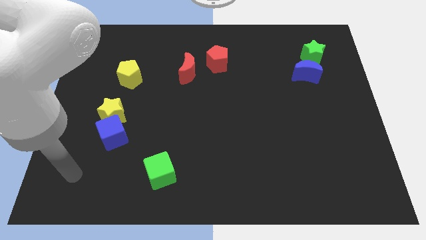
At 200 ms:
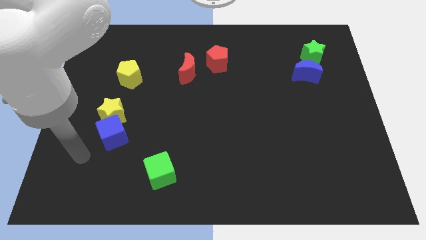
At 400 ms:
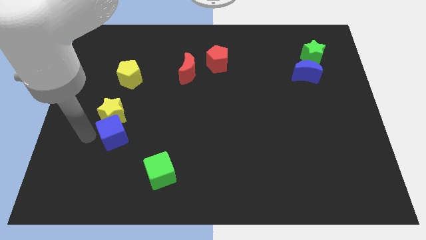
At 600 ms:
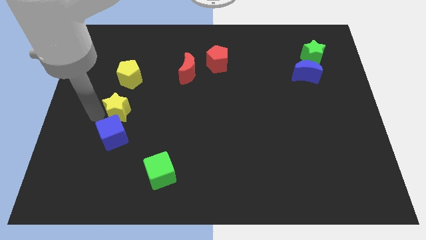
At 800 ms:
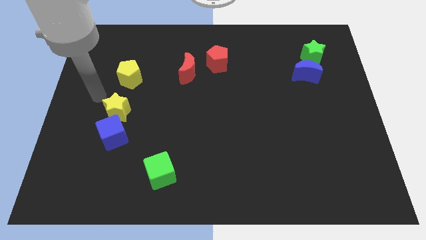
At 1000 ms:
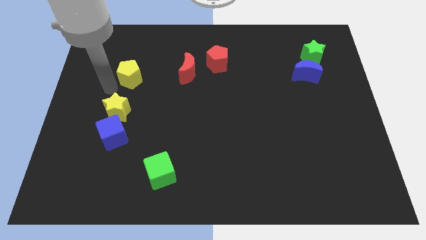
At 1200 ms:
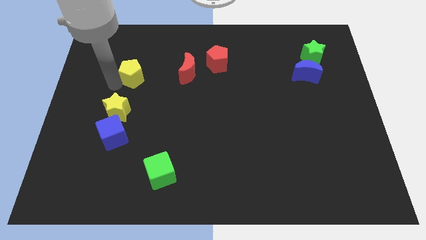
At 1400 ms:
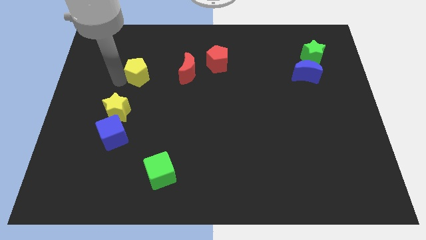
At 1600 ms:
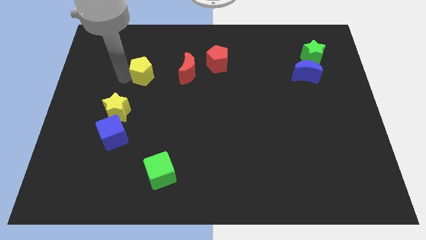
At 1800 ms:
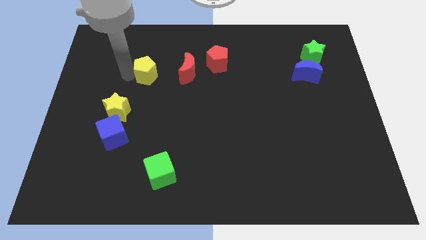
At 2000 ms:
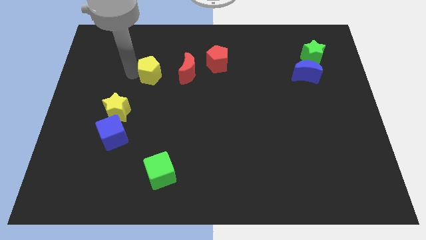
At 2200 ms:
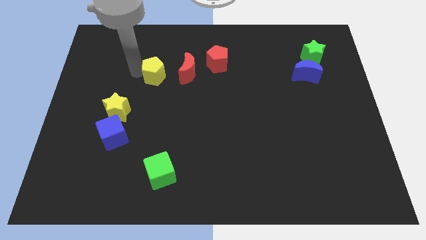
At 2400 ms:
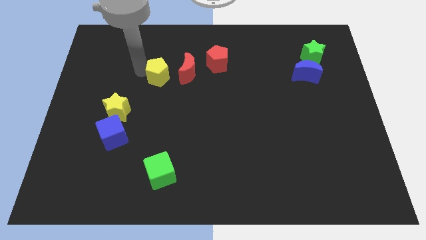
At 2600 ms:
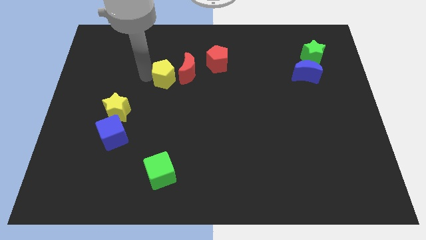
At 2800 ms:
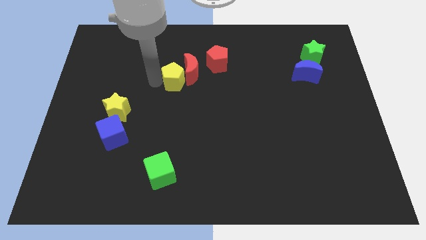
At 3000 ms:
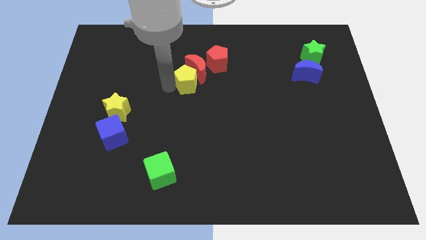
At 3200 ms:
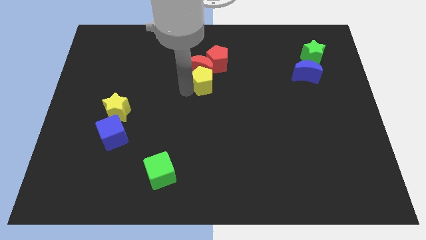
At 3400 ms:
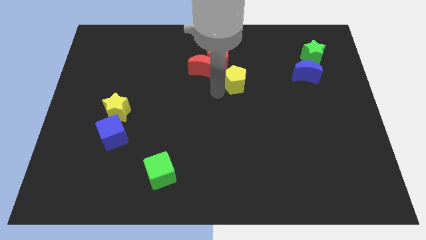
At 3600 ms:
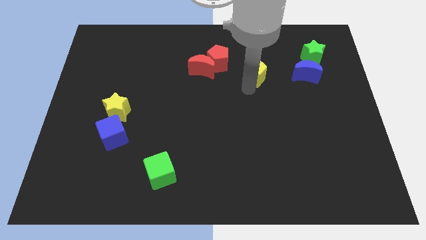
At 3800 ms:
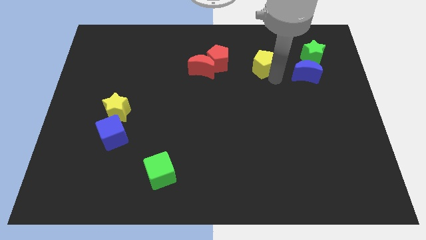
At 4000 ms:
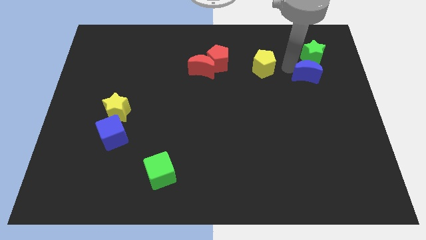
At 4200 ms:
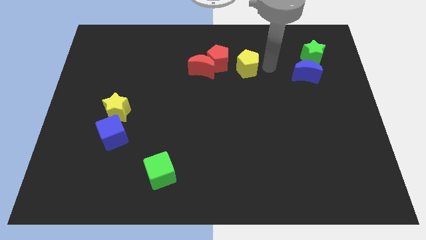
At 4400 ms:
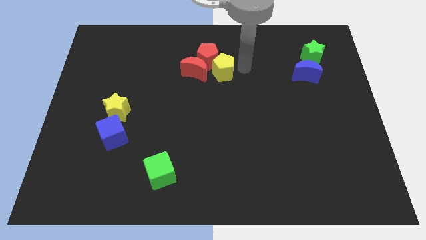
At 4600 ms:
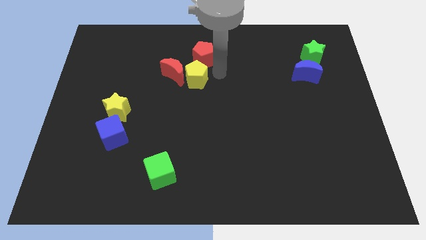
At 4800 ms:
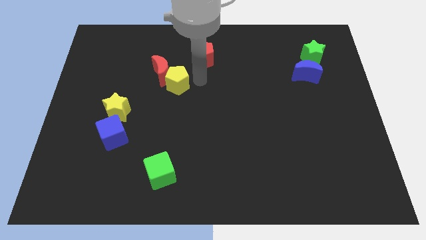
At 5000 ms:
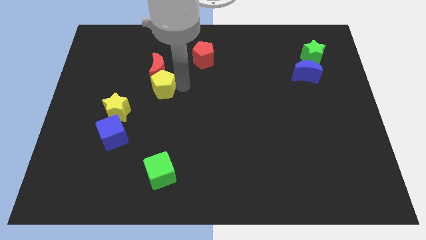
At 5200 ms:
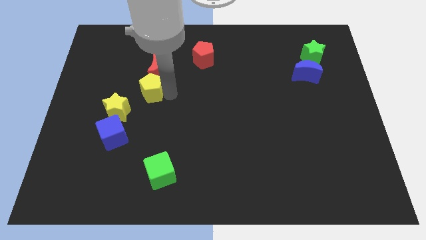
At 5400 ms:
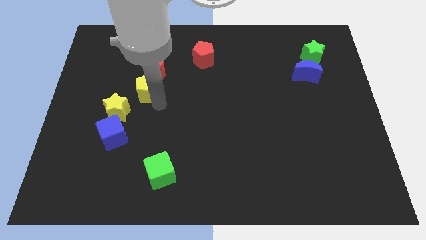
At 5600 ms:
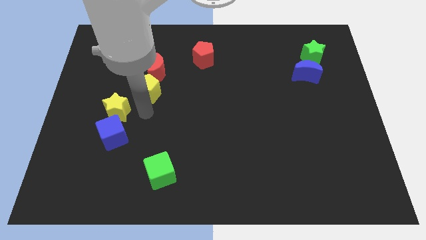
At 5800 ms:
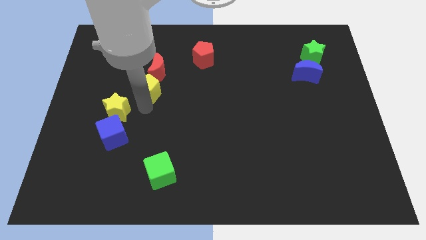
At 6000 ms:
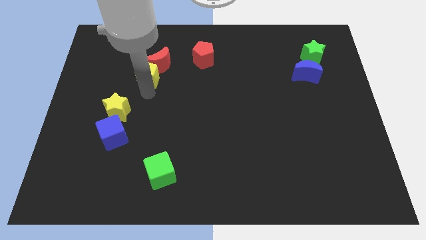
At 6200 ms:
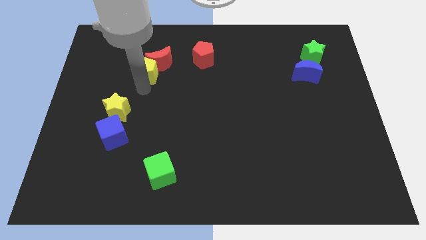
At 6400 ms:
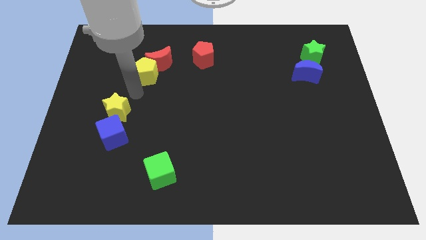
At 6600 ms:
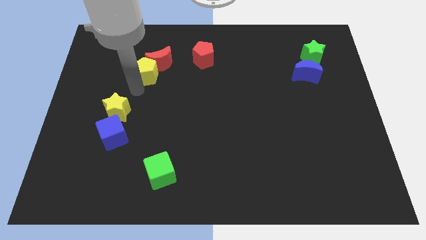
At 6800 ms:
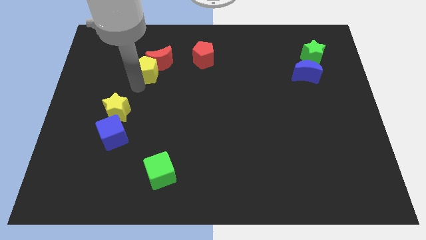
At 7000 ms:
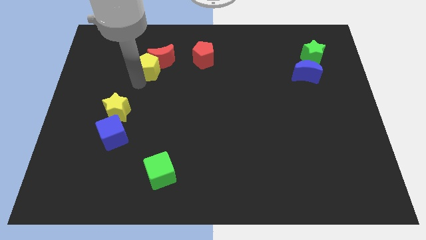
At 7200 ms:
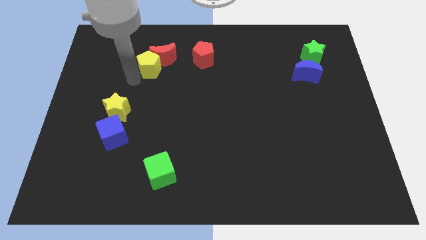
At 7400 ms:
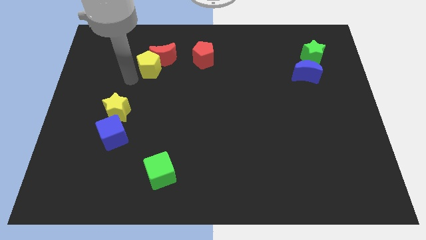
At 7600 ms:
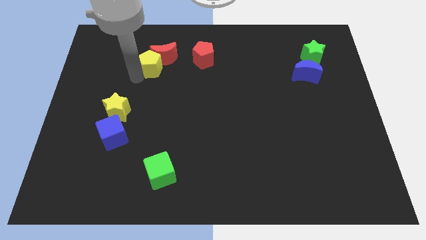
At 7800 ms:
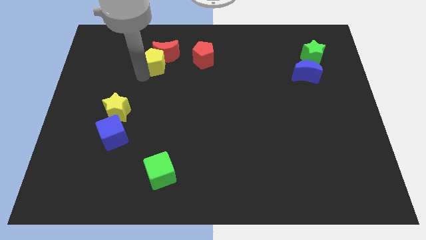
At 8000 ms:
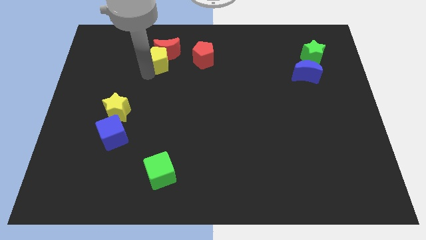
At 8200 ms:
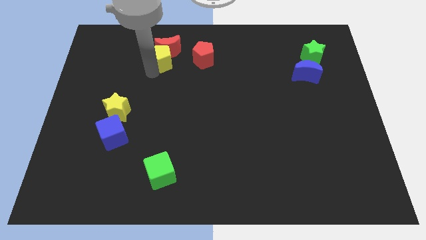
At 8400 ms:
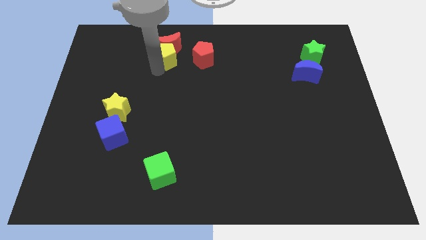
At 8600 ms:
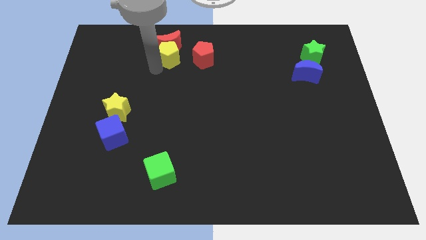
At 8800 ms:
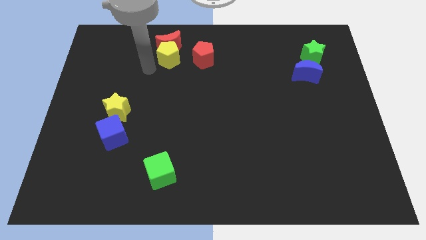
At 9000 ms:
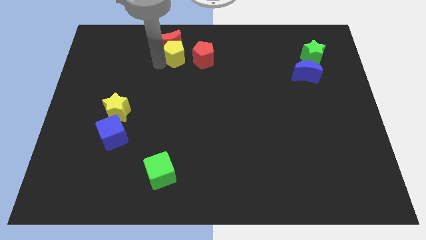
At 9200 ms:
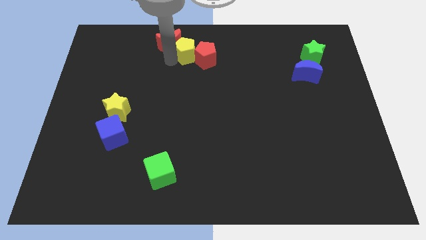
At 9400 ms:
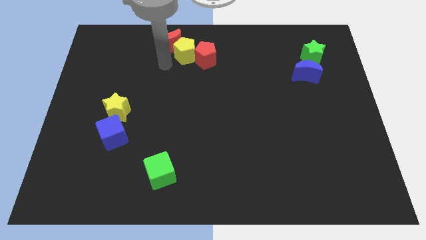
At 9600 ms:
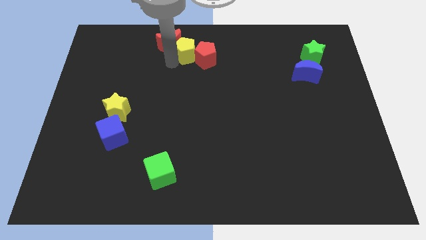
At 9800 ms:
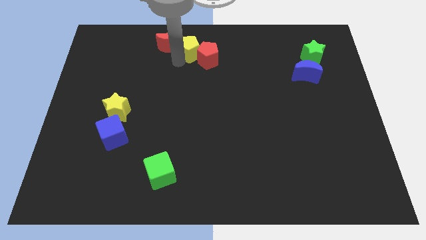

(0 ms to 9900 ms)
put the yellow pentagon to the top

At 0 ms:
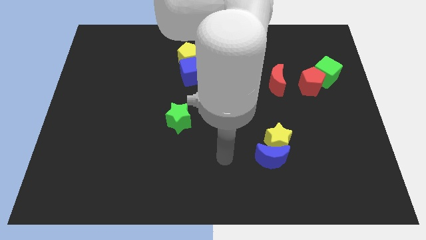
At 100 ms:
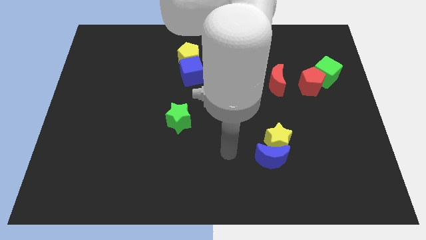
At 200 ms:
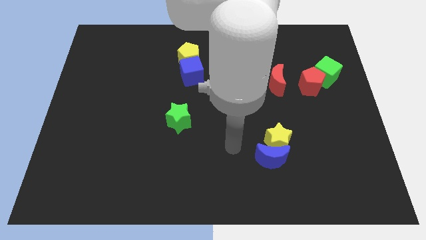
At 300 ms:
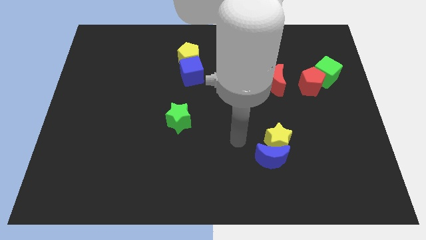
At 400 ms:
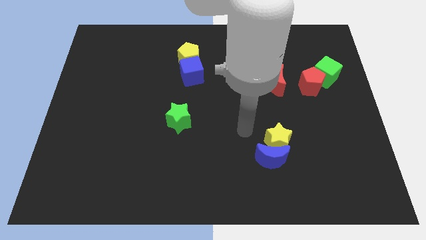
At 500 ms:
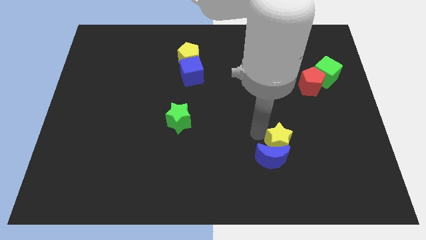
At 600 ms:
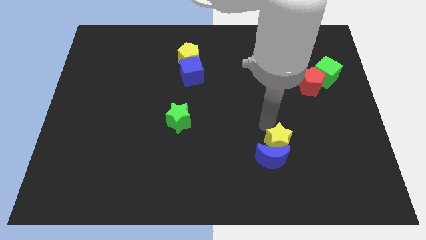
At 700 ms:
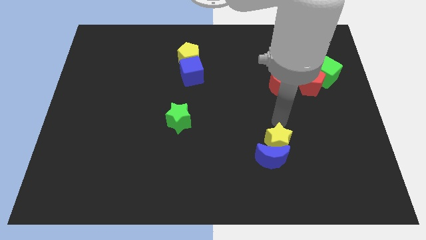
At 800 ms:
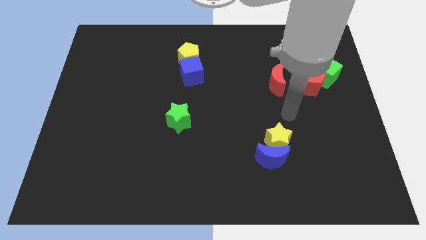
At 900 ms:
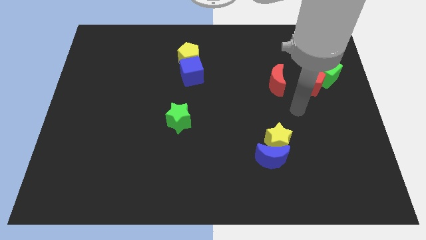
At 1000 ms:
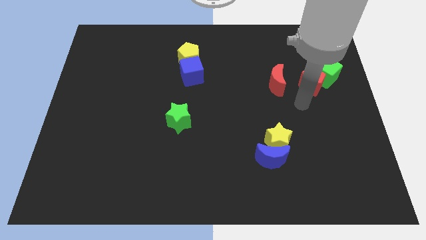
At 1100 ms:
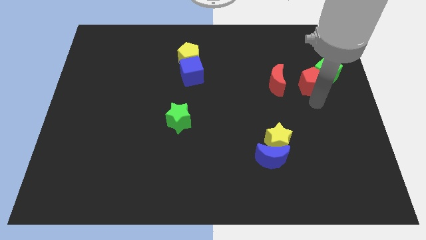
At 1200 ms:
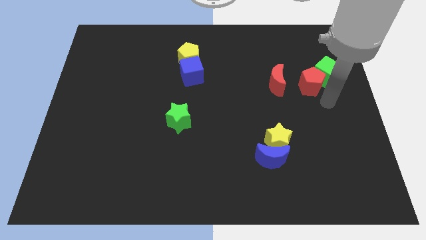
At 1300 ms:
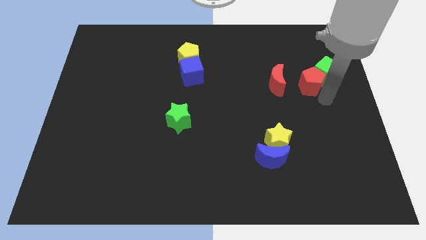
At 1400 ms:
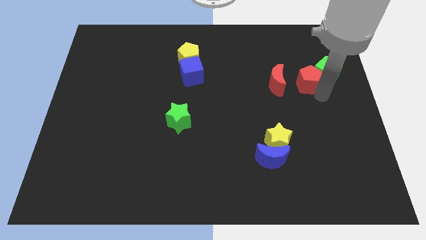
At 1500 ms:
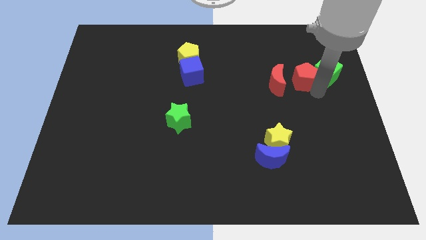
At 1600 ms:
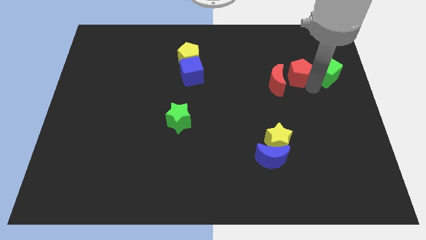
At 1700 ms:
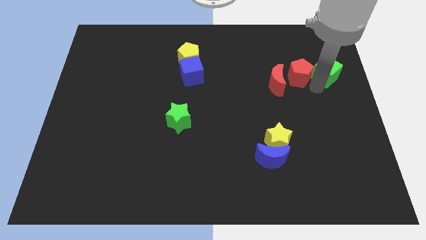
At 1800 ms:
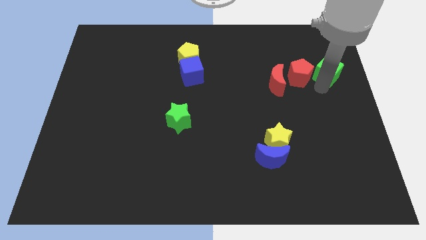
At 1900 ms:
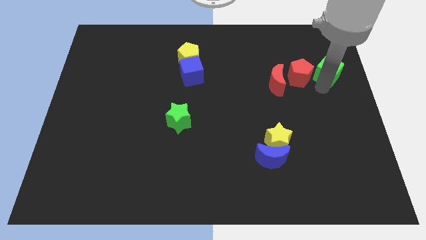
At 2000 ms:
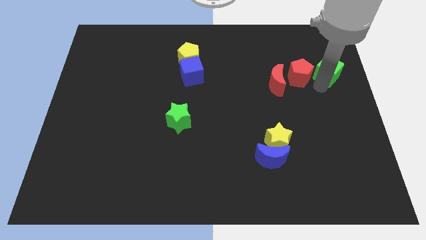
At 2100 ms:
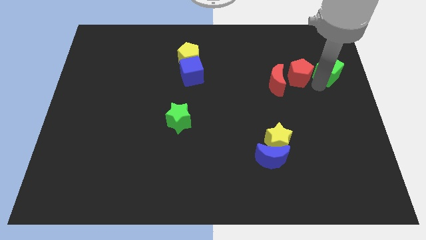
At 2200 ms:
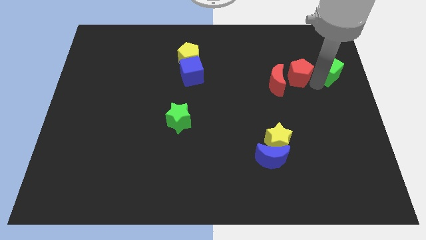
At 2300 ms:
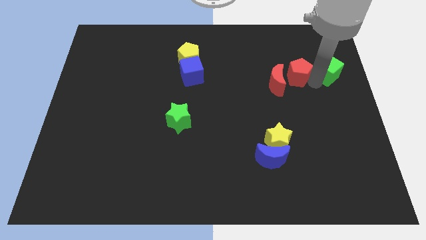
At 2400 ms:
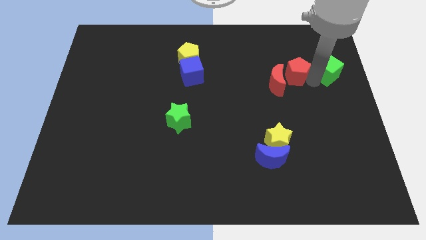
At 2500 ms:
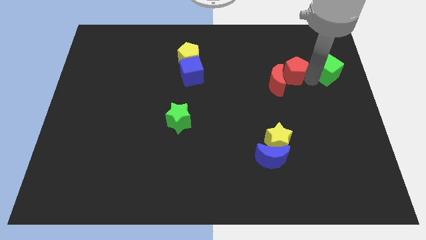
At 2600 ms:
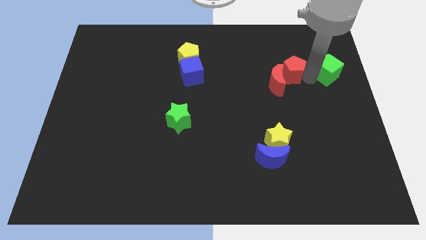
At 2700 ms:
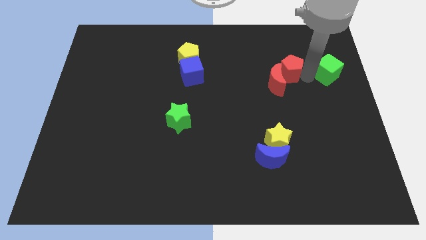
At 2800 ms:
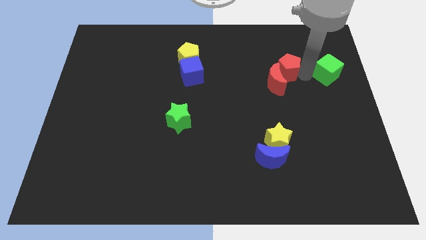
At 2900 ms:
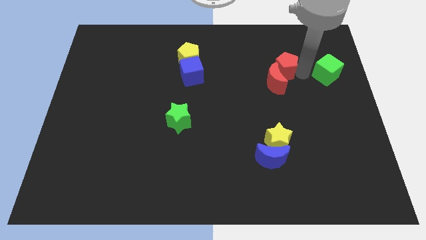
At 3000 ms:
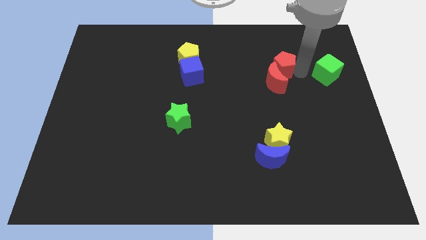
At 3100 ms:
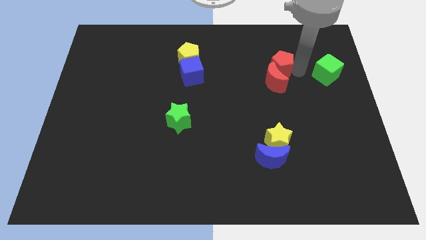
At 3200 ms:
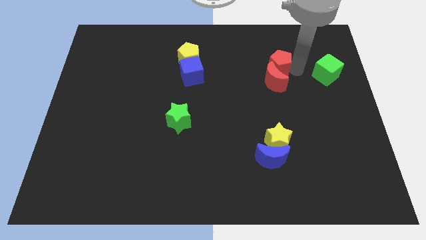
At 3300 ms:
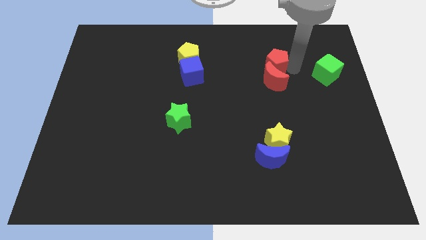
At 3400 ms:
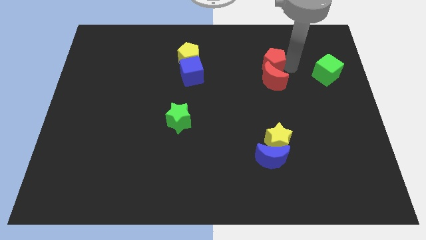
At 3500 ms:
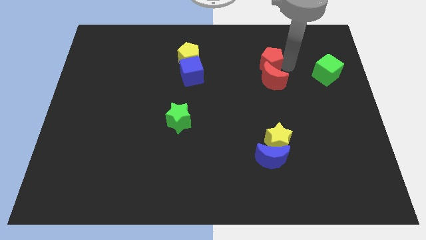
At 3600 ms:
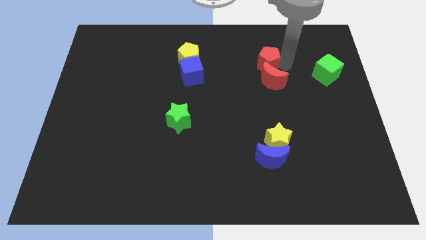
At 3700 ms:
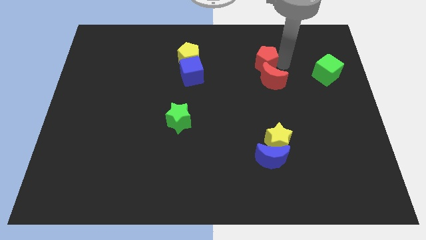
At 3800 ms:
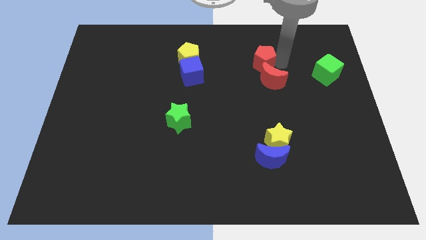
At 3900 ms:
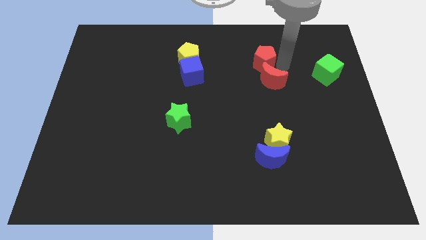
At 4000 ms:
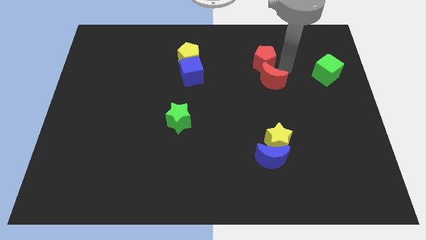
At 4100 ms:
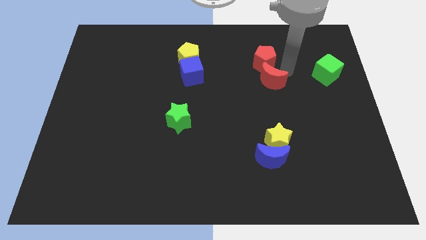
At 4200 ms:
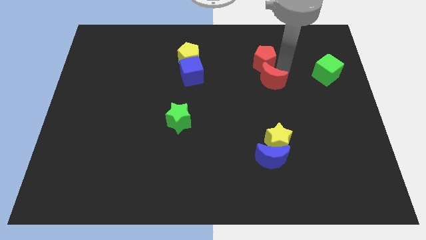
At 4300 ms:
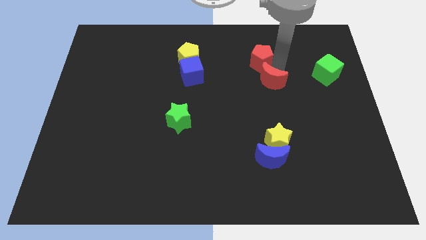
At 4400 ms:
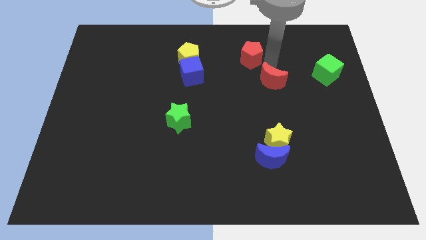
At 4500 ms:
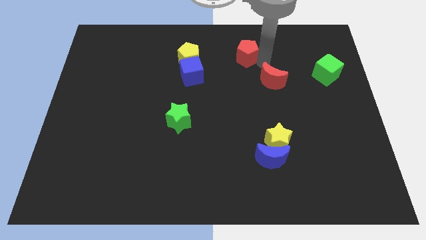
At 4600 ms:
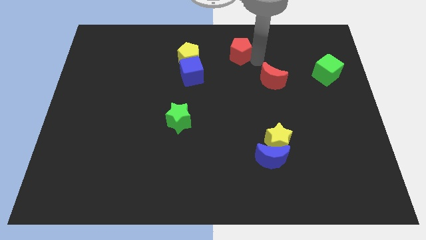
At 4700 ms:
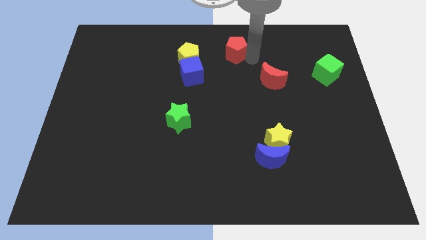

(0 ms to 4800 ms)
move the red pentagon to the towards your base
